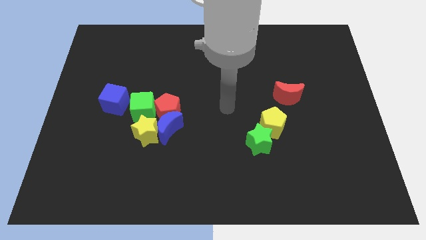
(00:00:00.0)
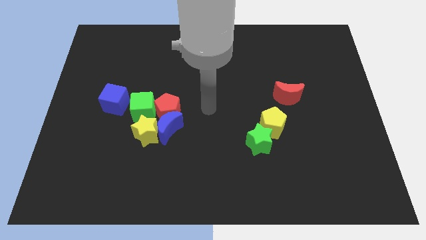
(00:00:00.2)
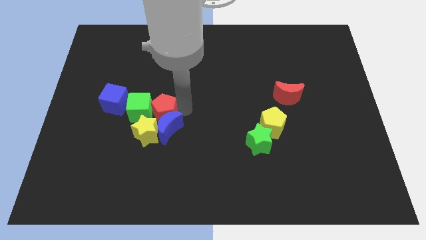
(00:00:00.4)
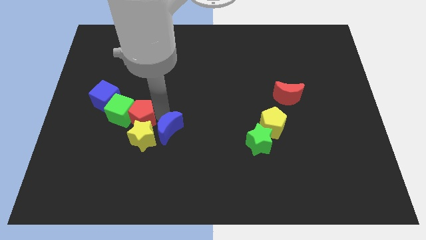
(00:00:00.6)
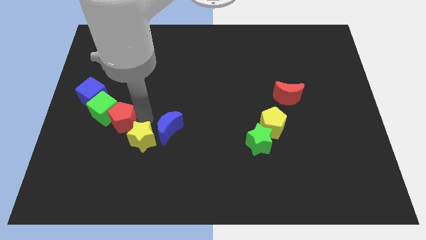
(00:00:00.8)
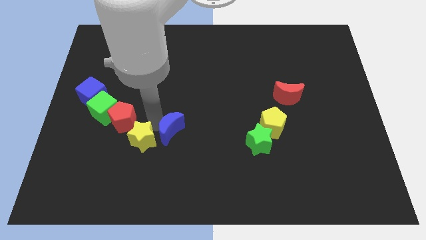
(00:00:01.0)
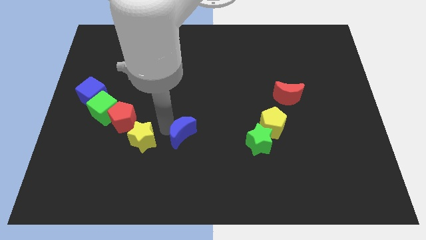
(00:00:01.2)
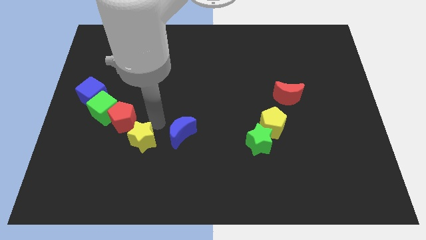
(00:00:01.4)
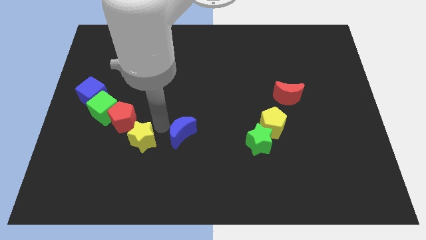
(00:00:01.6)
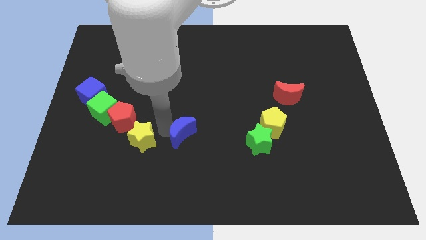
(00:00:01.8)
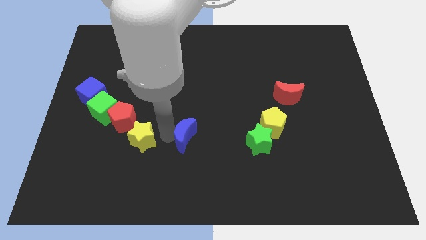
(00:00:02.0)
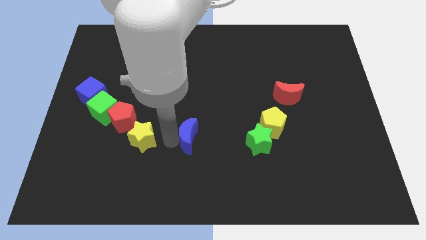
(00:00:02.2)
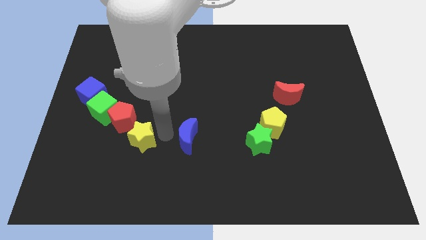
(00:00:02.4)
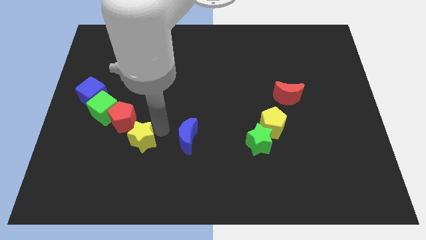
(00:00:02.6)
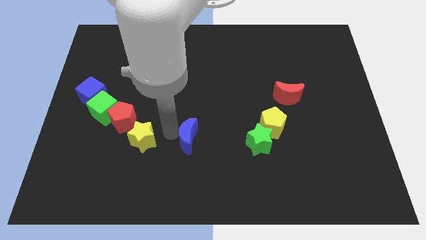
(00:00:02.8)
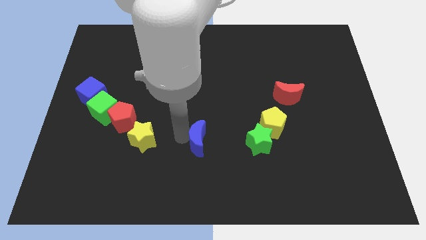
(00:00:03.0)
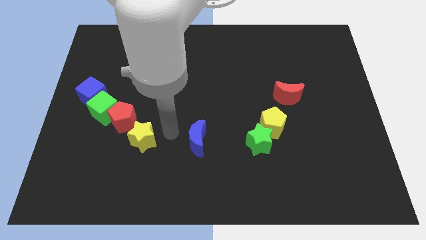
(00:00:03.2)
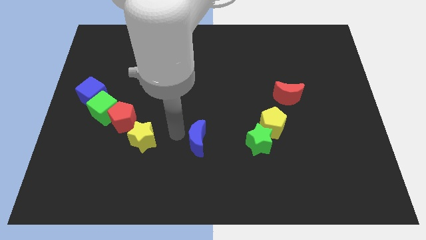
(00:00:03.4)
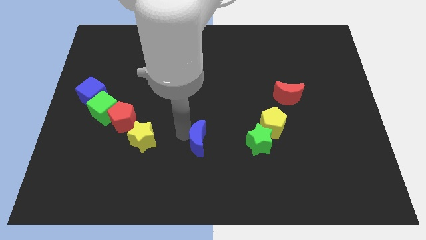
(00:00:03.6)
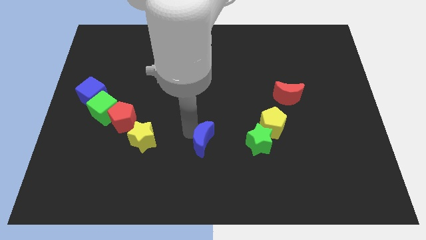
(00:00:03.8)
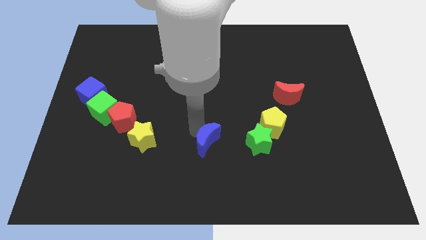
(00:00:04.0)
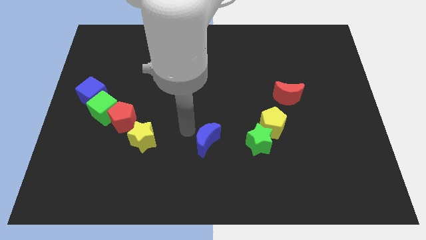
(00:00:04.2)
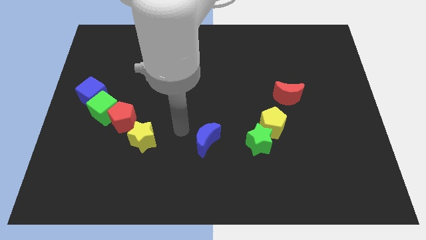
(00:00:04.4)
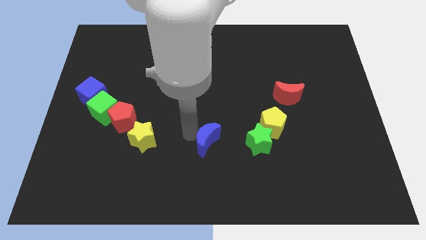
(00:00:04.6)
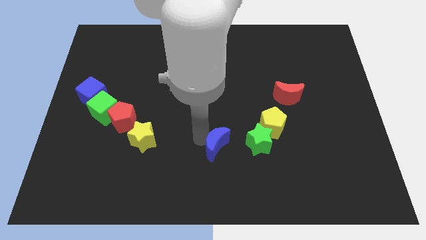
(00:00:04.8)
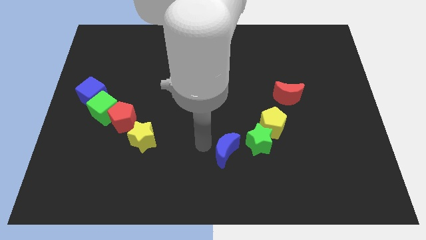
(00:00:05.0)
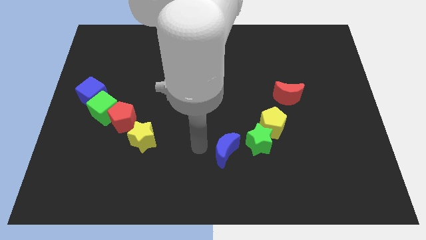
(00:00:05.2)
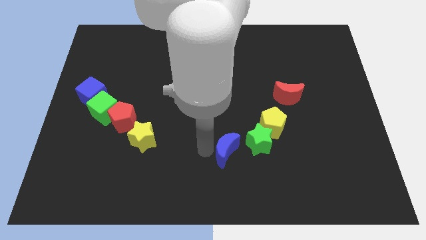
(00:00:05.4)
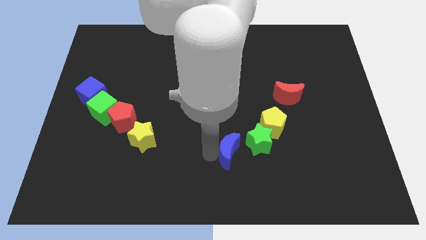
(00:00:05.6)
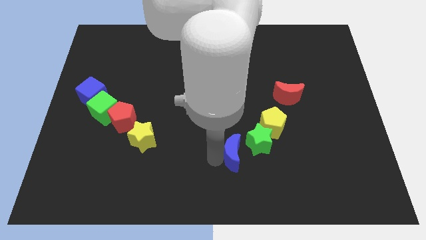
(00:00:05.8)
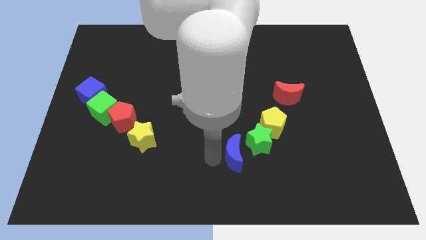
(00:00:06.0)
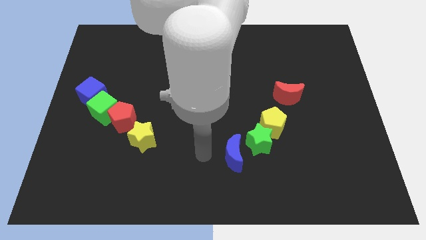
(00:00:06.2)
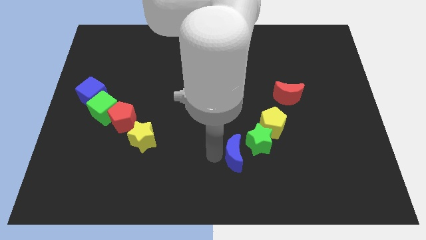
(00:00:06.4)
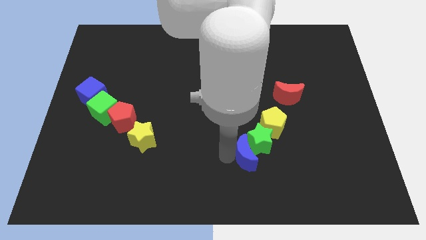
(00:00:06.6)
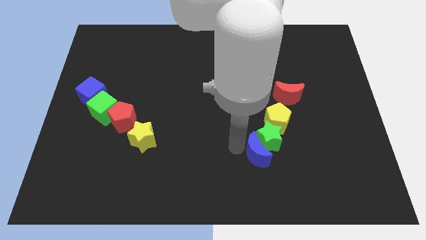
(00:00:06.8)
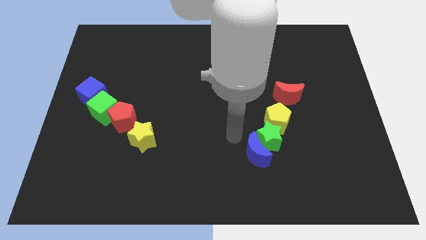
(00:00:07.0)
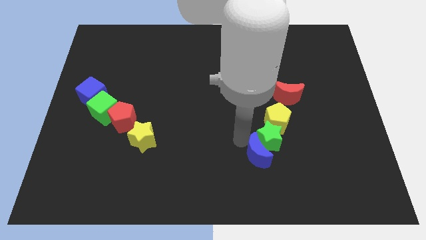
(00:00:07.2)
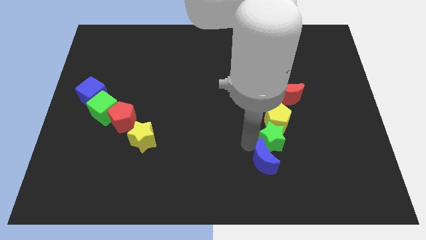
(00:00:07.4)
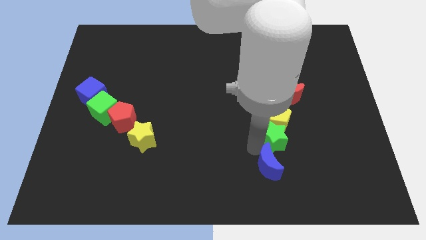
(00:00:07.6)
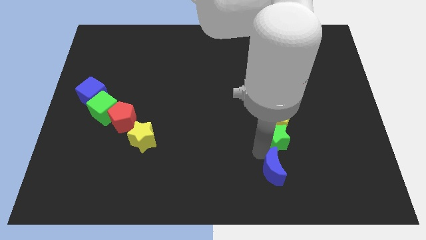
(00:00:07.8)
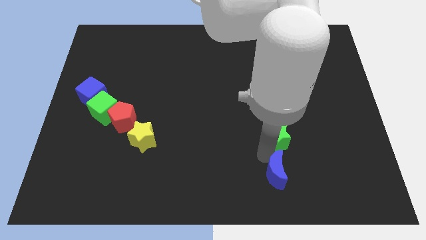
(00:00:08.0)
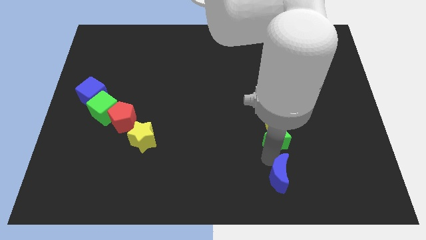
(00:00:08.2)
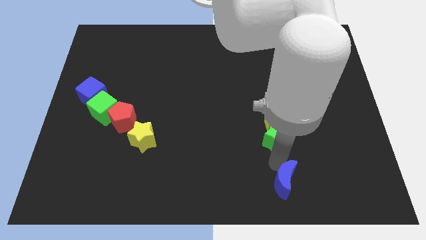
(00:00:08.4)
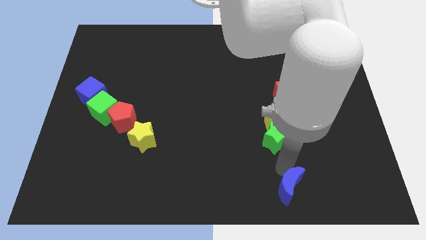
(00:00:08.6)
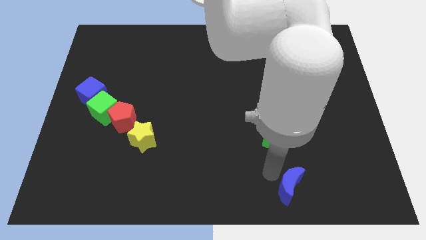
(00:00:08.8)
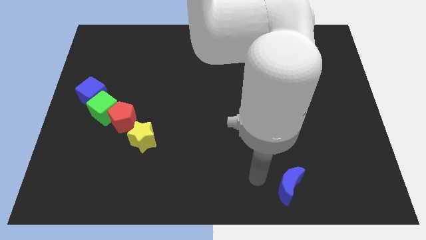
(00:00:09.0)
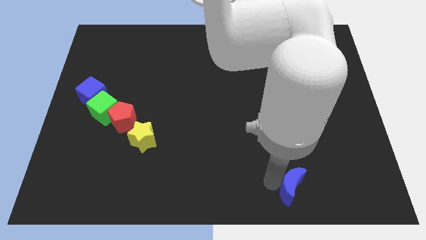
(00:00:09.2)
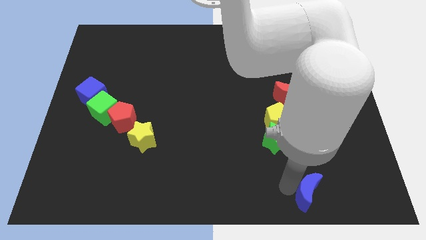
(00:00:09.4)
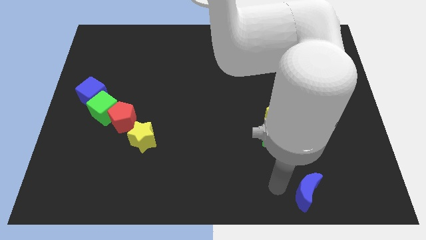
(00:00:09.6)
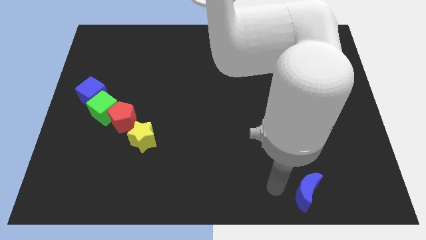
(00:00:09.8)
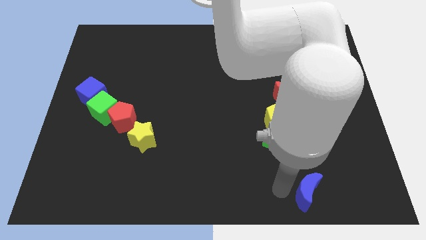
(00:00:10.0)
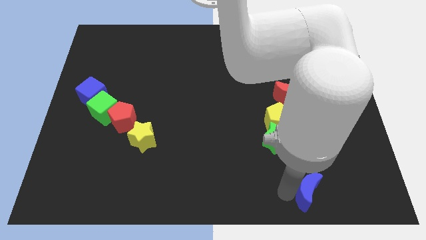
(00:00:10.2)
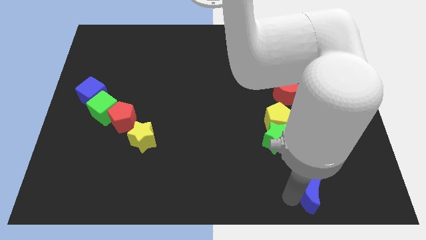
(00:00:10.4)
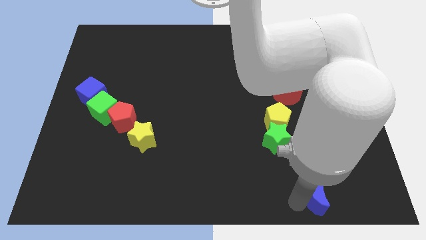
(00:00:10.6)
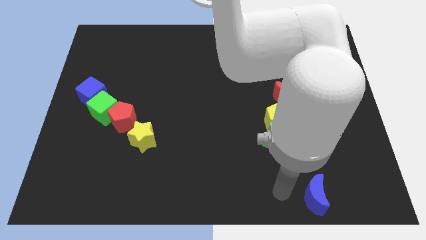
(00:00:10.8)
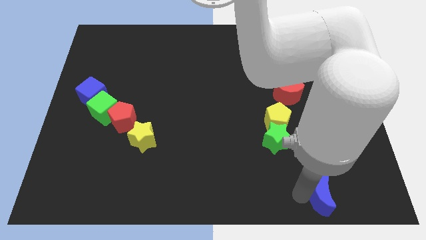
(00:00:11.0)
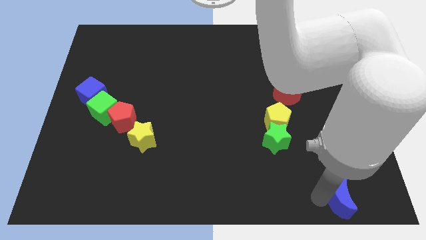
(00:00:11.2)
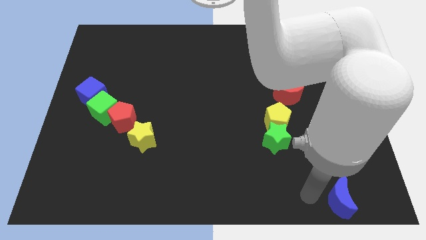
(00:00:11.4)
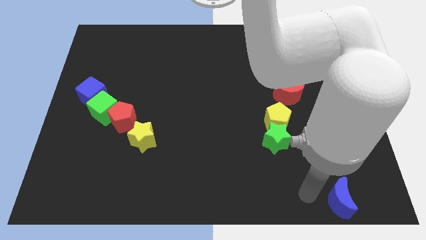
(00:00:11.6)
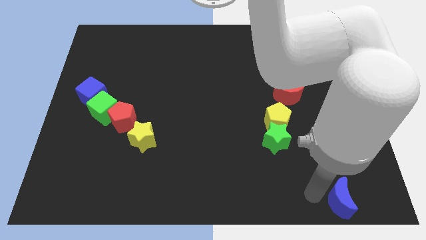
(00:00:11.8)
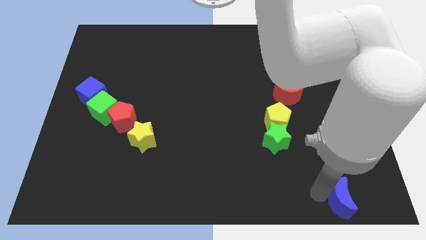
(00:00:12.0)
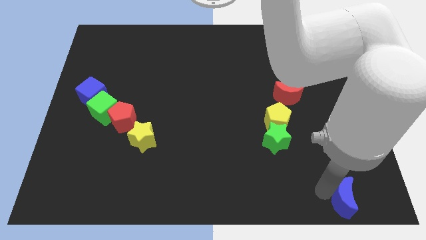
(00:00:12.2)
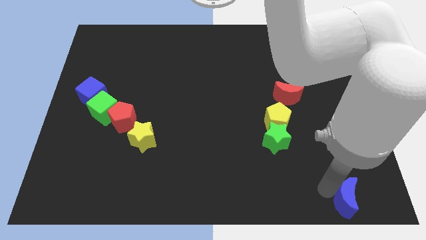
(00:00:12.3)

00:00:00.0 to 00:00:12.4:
push the blue moon to the bottom right corner
